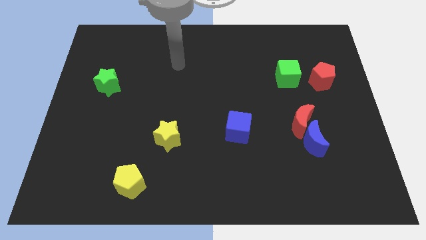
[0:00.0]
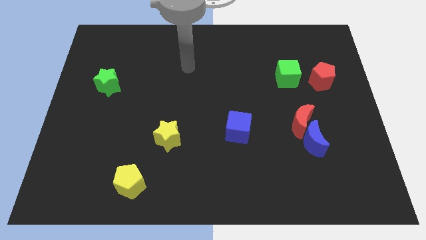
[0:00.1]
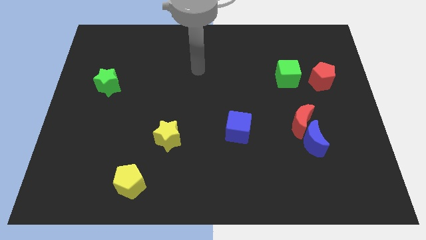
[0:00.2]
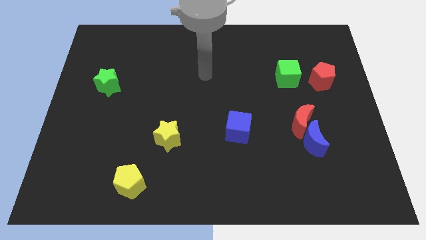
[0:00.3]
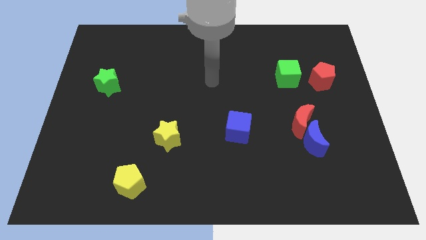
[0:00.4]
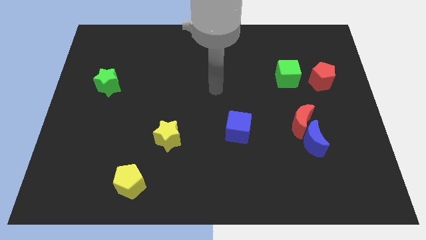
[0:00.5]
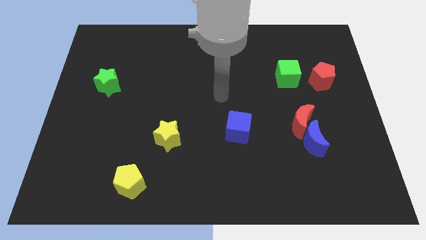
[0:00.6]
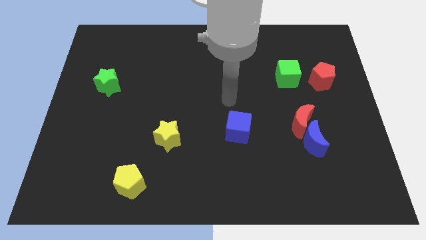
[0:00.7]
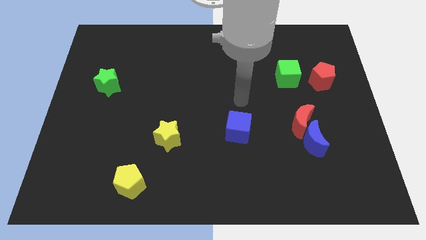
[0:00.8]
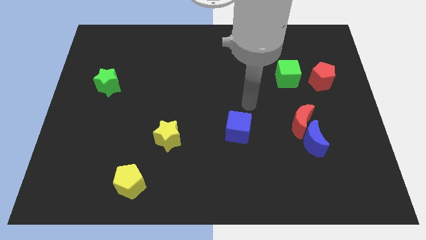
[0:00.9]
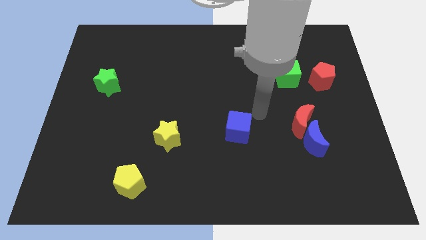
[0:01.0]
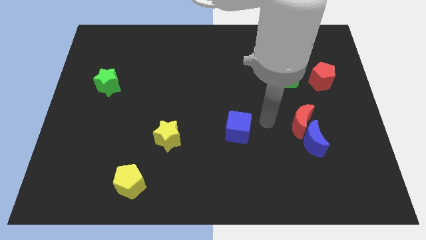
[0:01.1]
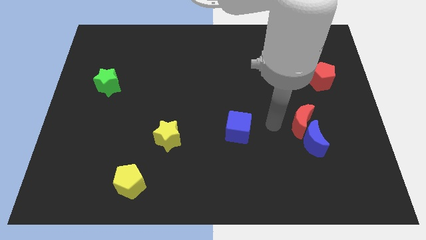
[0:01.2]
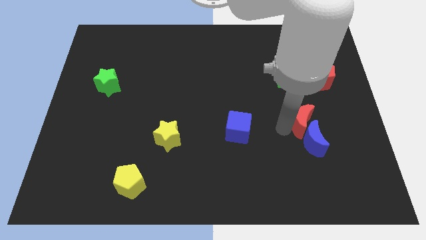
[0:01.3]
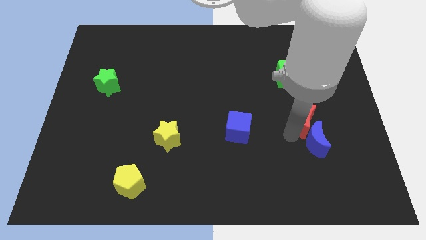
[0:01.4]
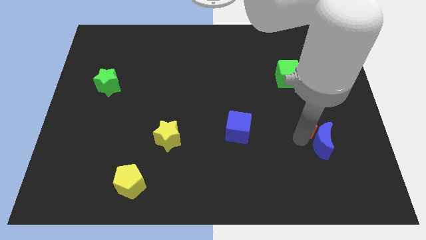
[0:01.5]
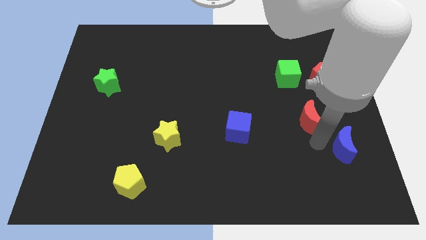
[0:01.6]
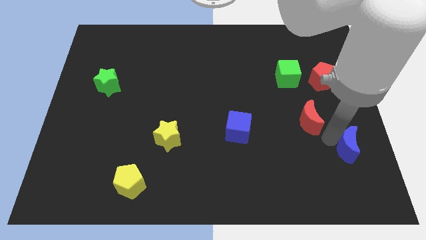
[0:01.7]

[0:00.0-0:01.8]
move the red moon away from the blue moon

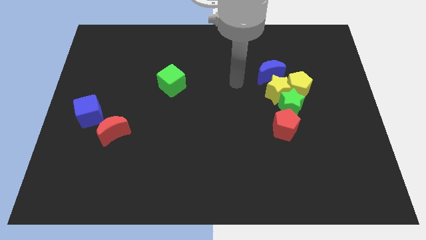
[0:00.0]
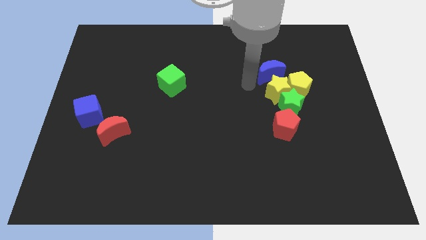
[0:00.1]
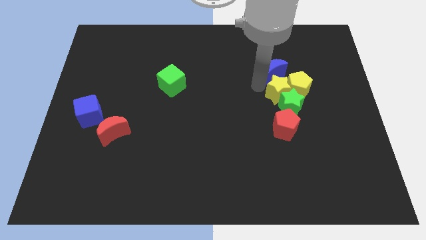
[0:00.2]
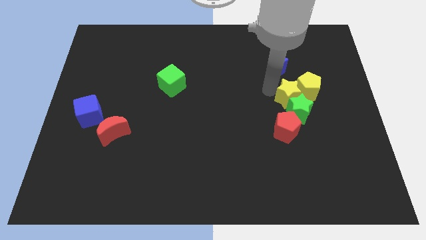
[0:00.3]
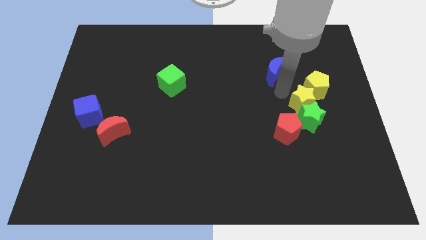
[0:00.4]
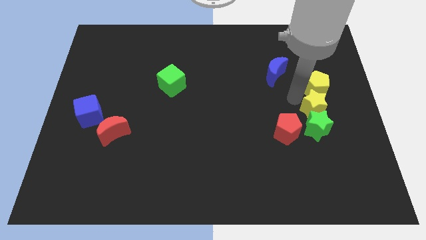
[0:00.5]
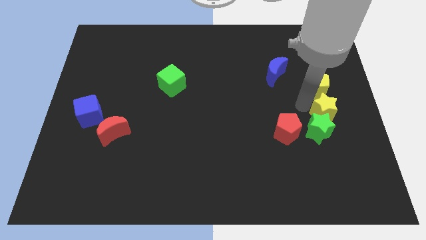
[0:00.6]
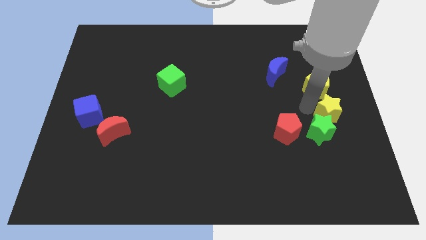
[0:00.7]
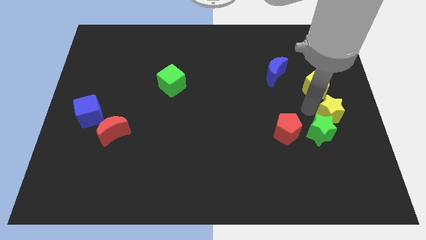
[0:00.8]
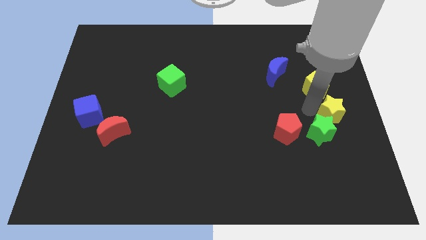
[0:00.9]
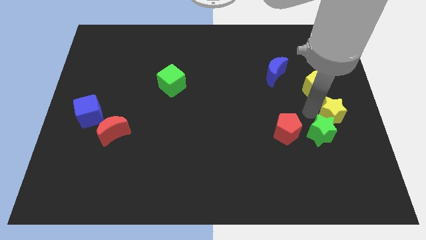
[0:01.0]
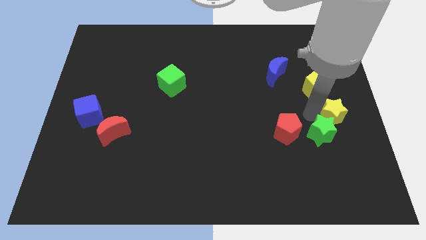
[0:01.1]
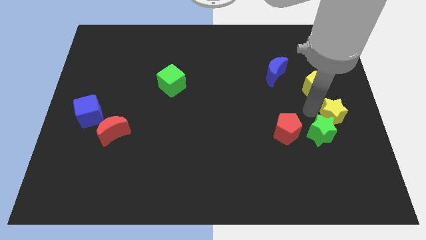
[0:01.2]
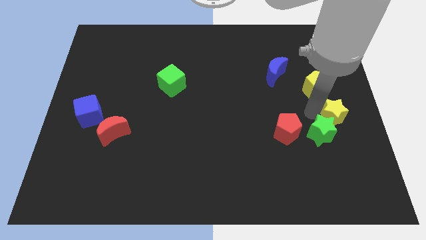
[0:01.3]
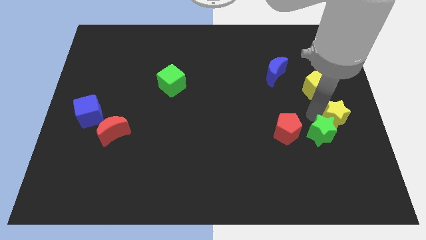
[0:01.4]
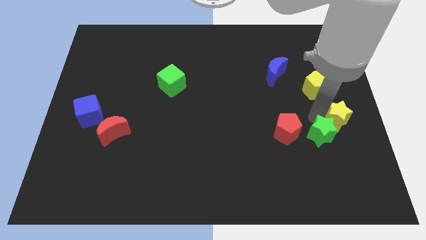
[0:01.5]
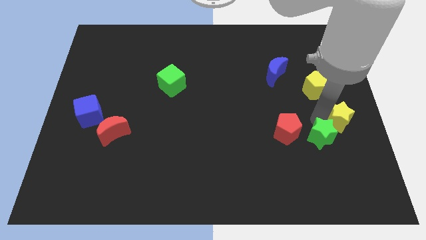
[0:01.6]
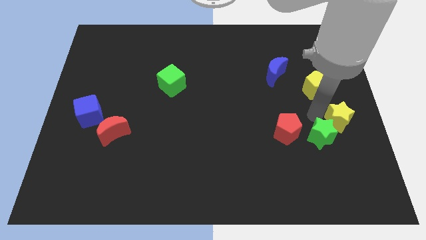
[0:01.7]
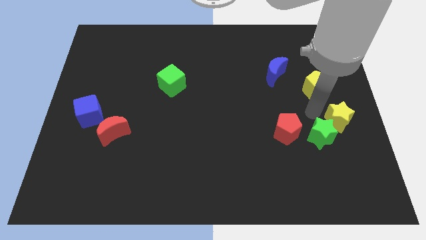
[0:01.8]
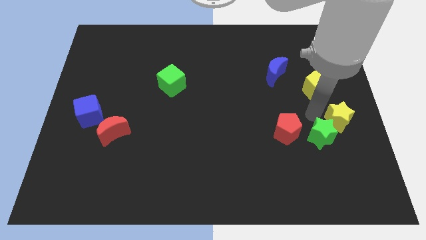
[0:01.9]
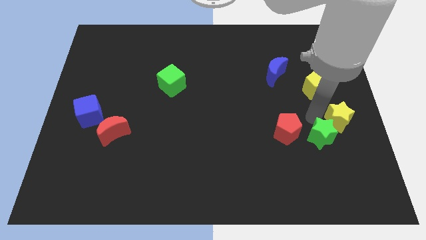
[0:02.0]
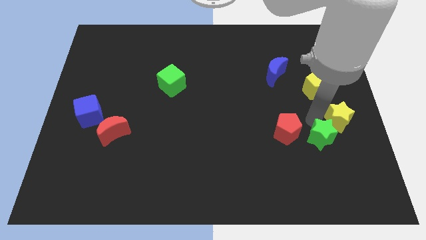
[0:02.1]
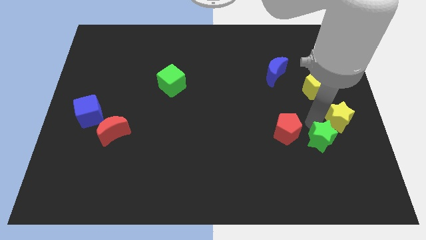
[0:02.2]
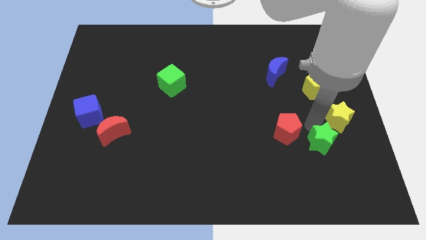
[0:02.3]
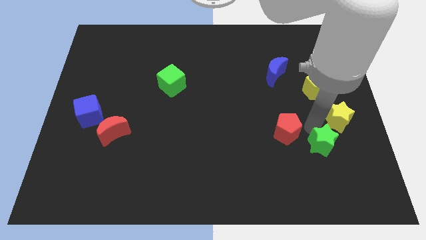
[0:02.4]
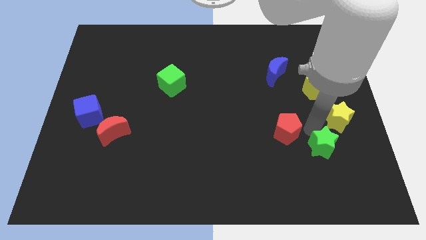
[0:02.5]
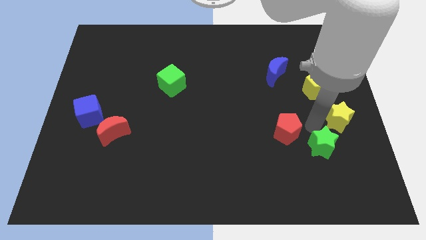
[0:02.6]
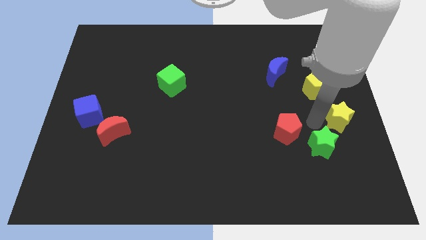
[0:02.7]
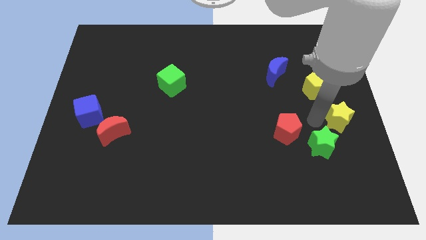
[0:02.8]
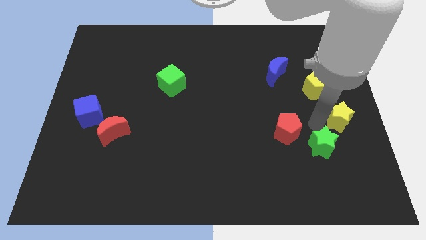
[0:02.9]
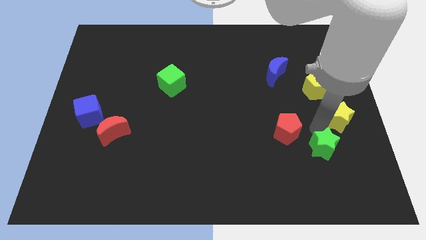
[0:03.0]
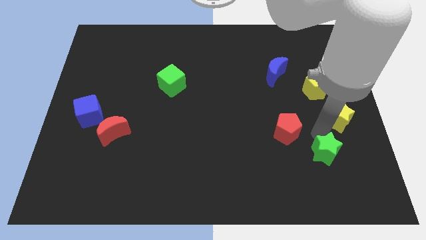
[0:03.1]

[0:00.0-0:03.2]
pull the green star apart from the clump

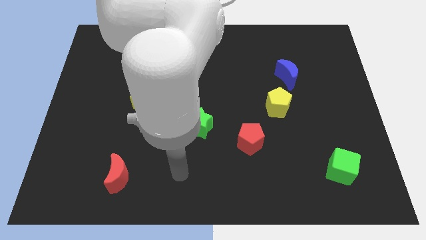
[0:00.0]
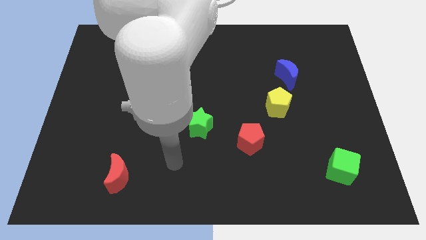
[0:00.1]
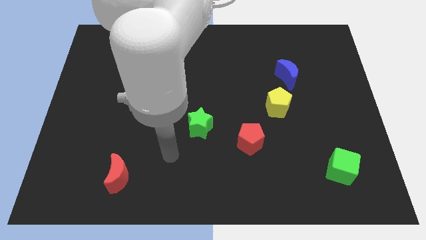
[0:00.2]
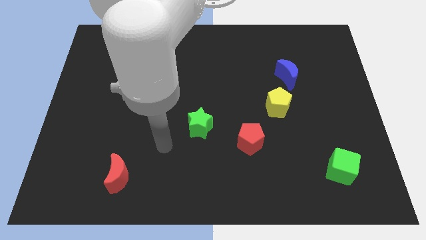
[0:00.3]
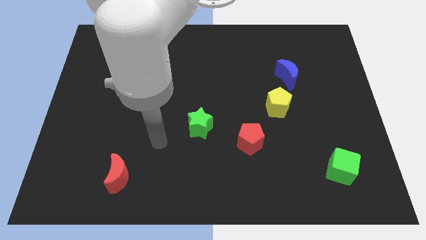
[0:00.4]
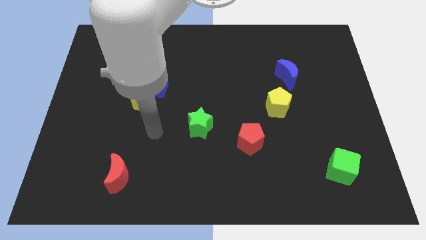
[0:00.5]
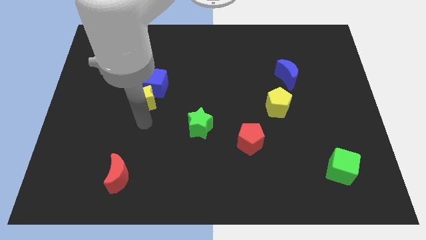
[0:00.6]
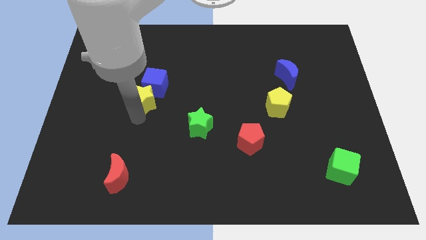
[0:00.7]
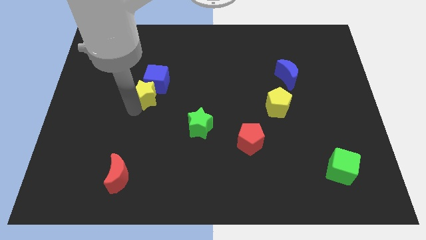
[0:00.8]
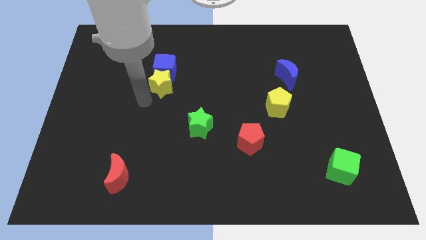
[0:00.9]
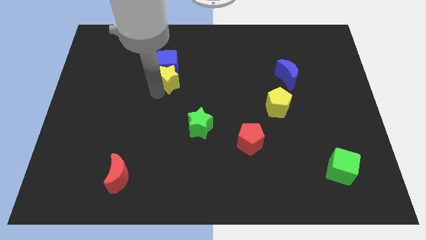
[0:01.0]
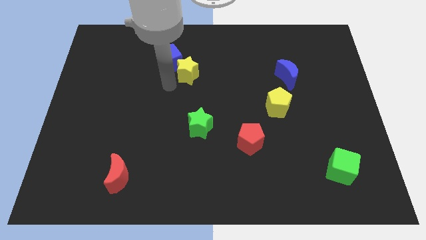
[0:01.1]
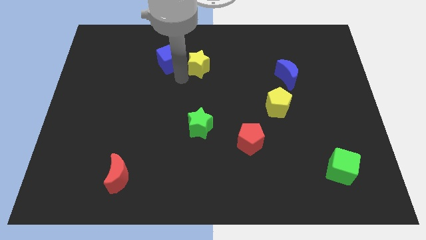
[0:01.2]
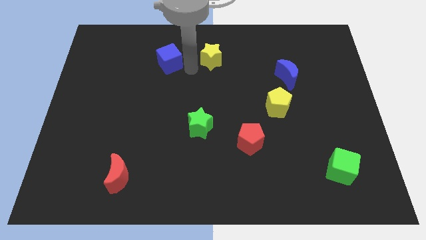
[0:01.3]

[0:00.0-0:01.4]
pull the blue cube apart from the yellow star

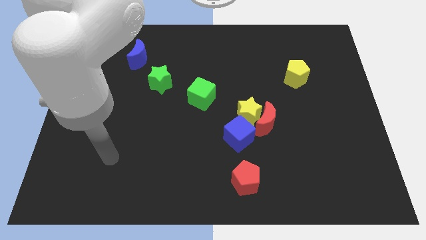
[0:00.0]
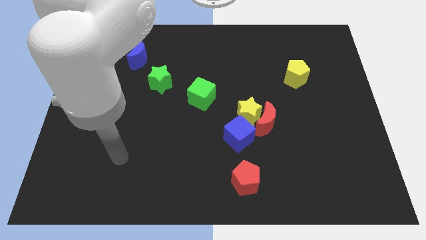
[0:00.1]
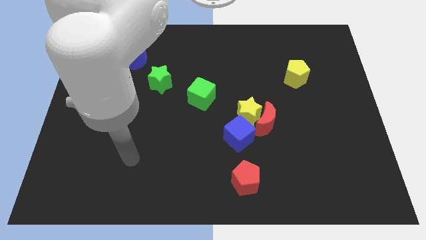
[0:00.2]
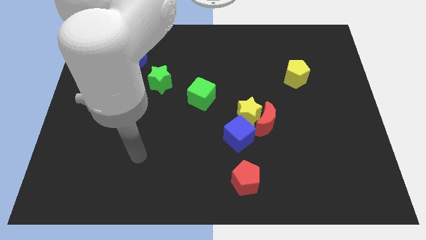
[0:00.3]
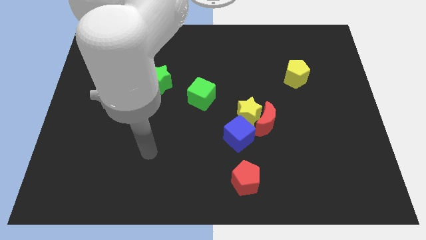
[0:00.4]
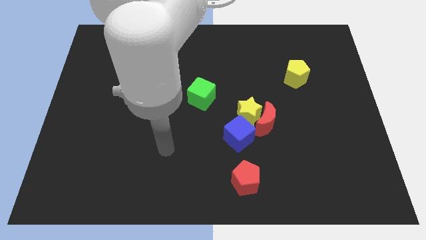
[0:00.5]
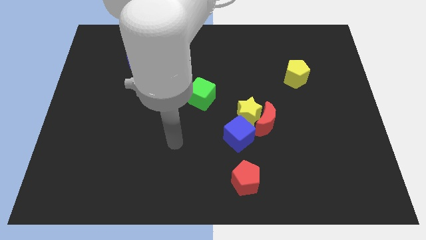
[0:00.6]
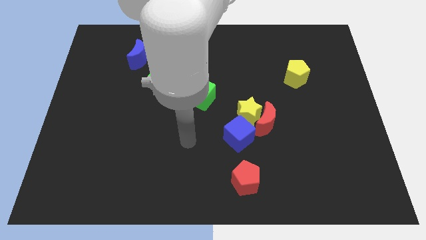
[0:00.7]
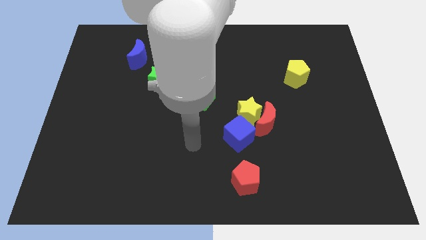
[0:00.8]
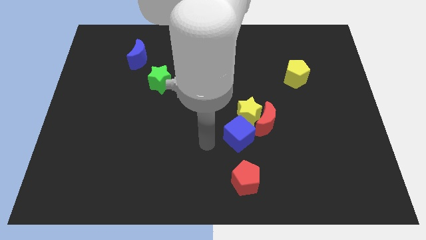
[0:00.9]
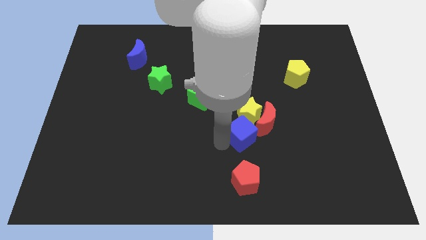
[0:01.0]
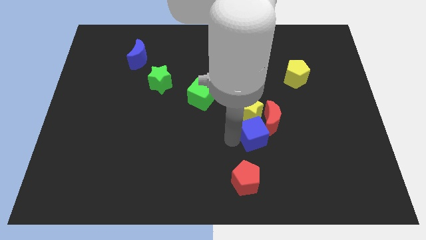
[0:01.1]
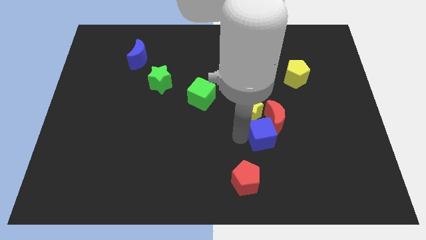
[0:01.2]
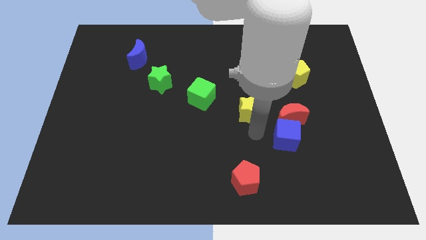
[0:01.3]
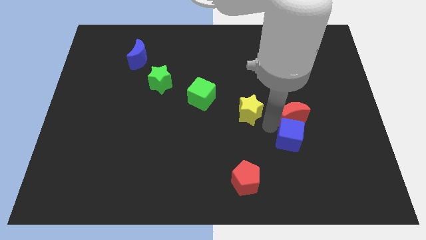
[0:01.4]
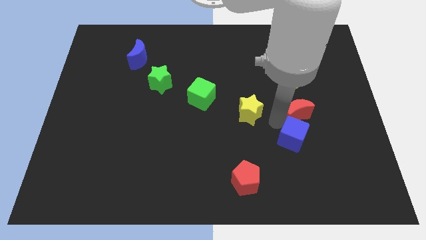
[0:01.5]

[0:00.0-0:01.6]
separate the yellow star from the red moon and blue cube

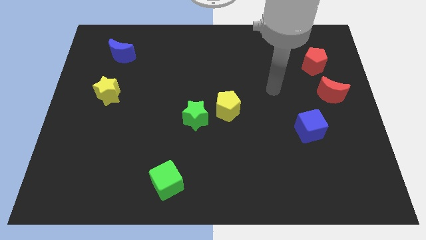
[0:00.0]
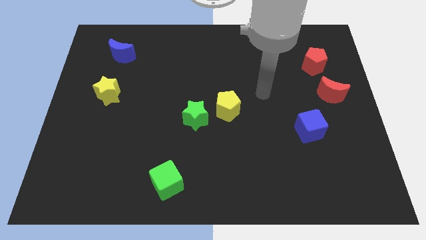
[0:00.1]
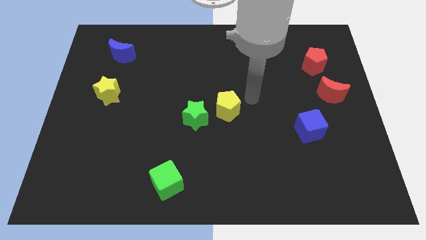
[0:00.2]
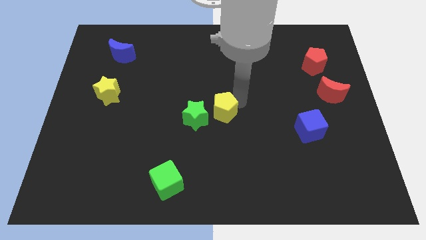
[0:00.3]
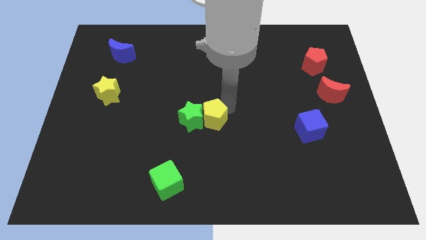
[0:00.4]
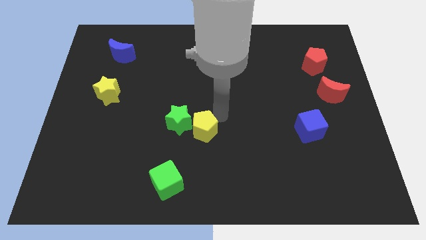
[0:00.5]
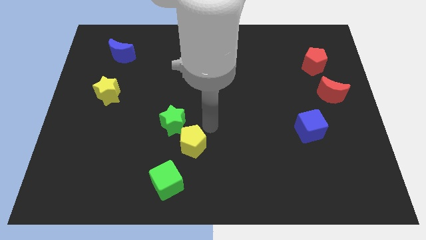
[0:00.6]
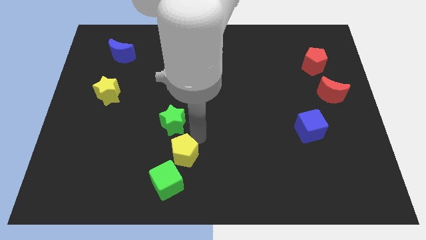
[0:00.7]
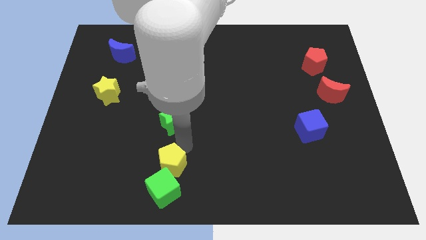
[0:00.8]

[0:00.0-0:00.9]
move the green star away from the yellow pentagon

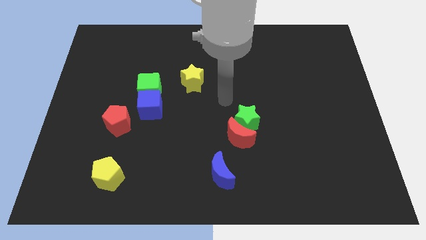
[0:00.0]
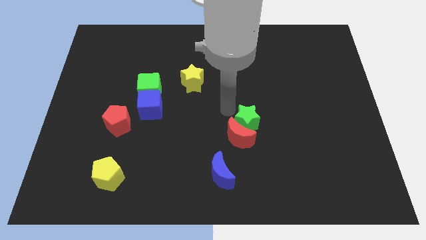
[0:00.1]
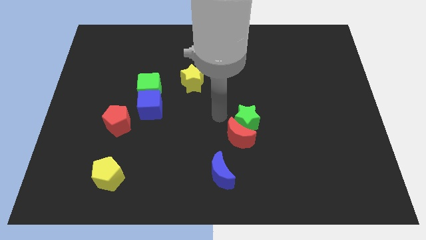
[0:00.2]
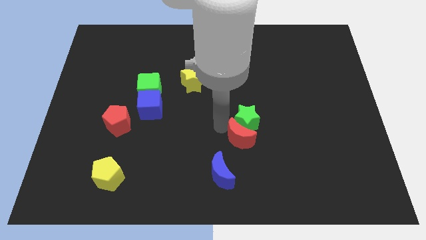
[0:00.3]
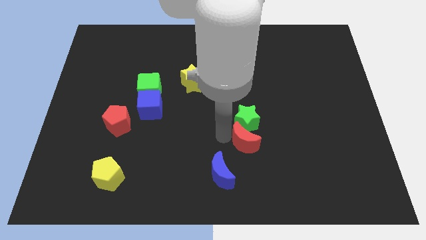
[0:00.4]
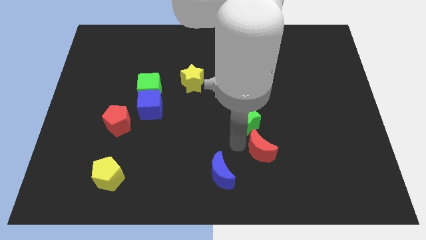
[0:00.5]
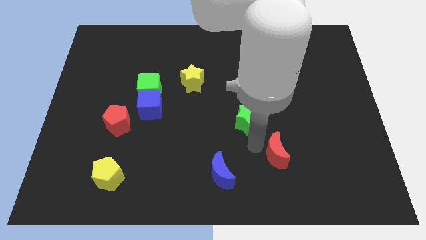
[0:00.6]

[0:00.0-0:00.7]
move the green star away from the red moon
